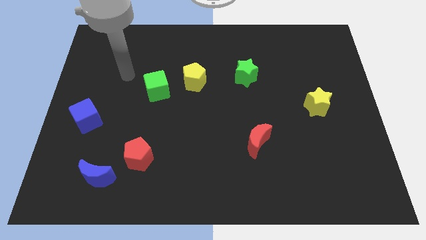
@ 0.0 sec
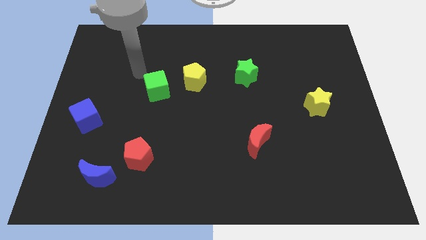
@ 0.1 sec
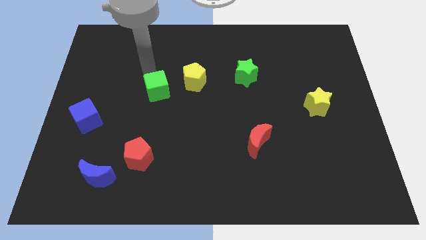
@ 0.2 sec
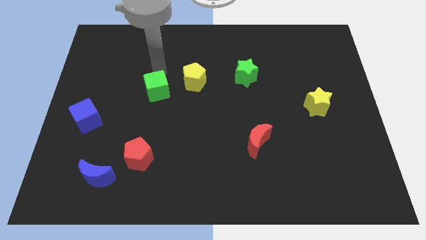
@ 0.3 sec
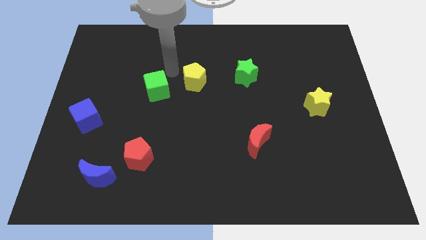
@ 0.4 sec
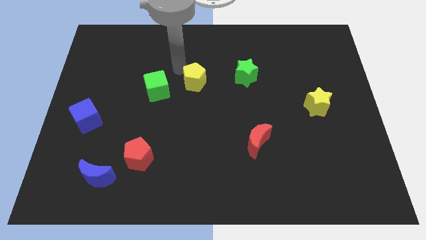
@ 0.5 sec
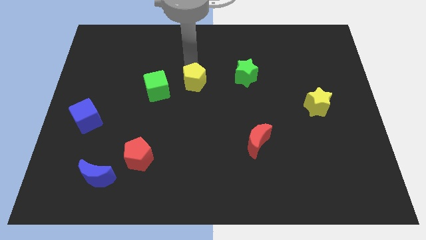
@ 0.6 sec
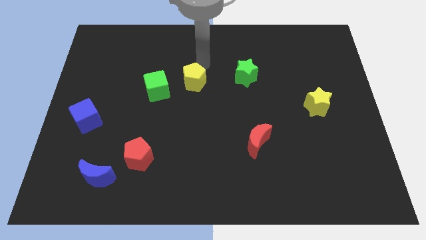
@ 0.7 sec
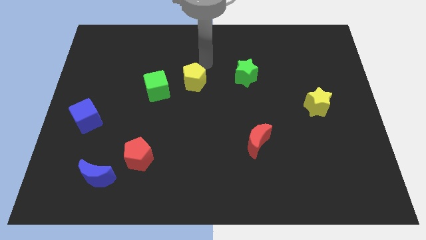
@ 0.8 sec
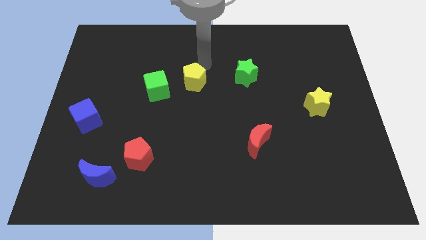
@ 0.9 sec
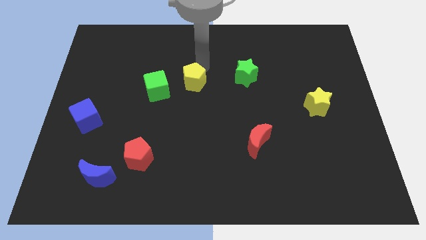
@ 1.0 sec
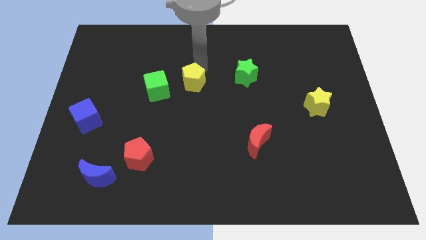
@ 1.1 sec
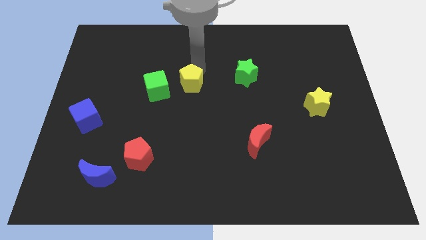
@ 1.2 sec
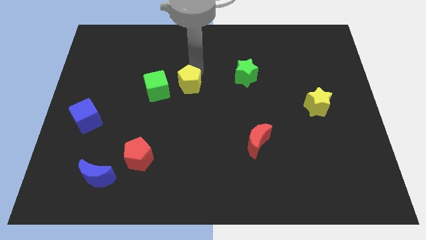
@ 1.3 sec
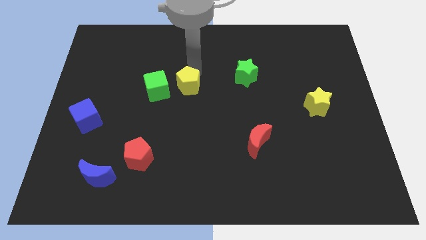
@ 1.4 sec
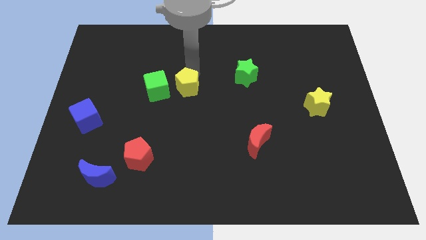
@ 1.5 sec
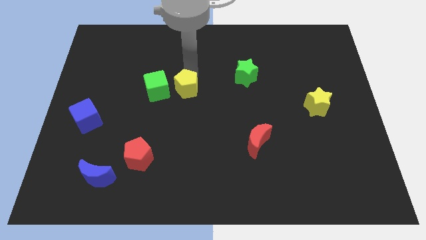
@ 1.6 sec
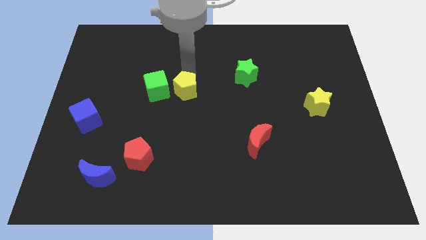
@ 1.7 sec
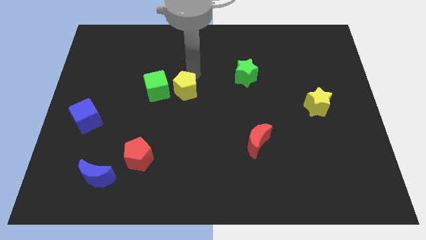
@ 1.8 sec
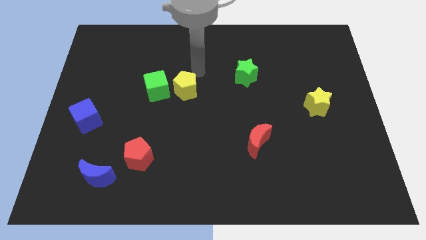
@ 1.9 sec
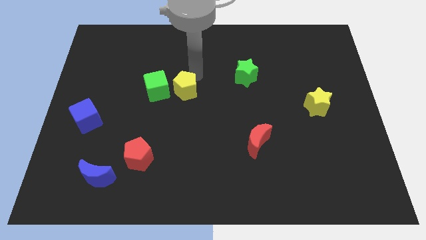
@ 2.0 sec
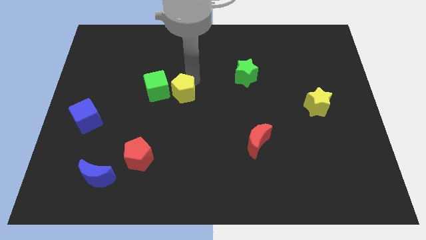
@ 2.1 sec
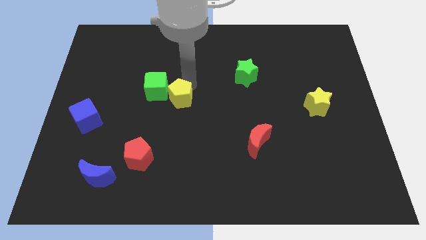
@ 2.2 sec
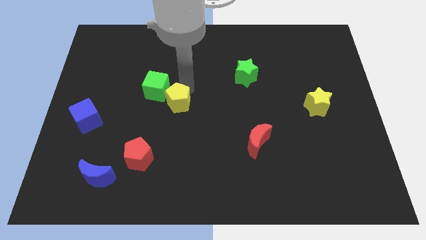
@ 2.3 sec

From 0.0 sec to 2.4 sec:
move the yellow pentagon slightly downwards and left

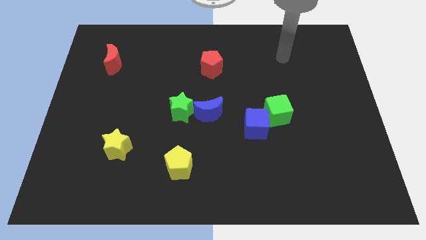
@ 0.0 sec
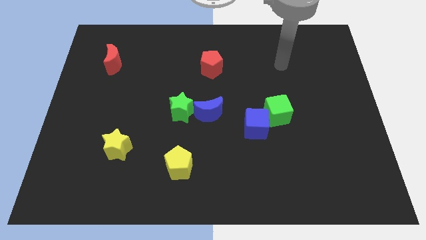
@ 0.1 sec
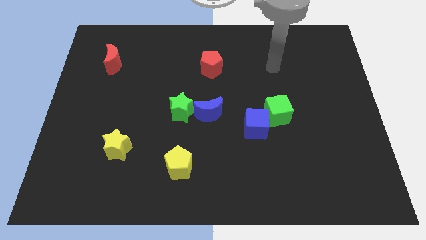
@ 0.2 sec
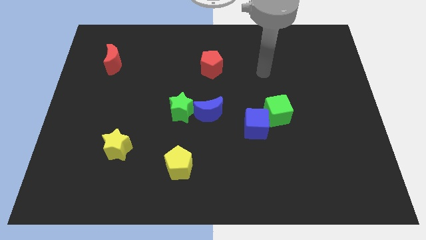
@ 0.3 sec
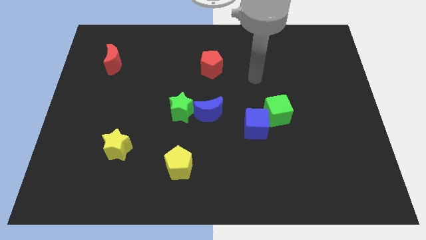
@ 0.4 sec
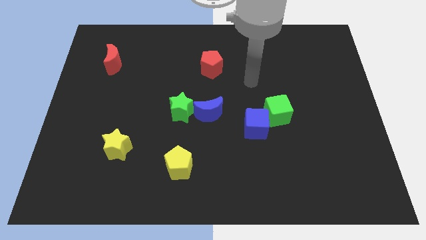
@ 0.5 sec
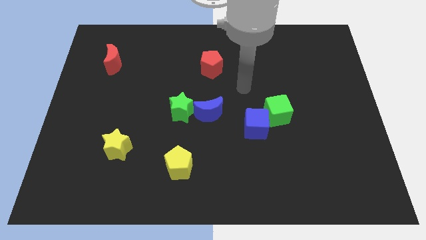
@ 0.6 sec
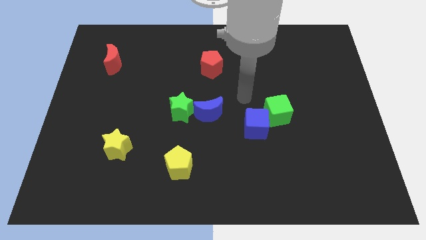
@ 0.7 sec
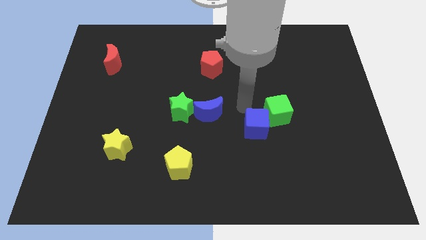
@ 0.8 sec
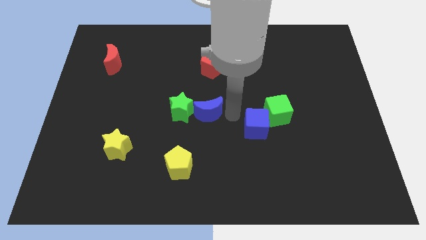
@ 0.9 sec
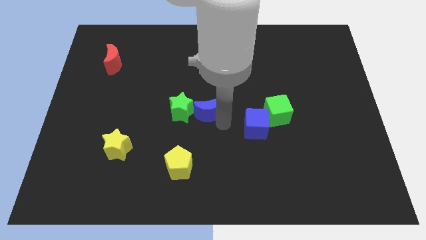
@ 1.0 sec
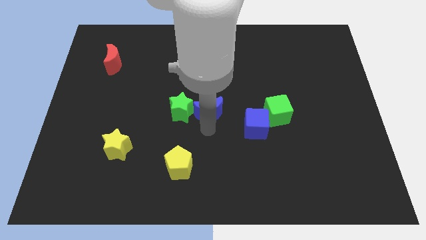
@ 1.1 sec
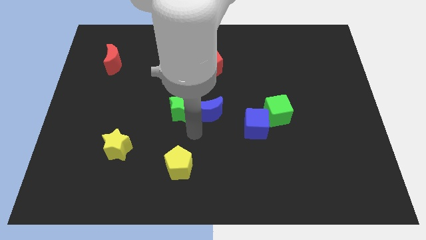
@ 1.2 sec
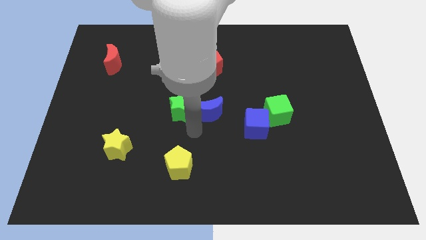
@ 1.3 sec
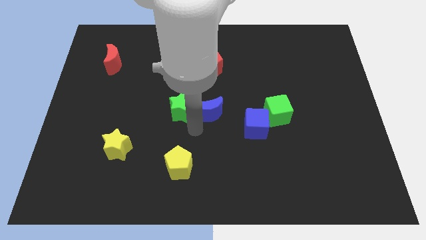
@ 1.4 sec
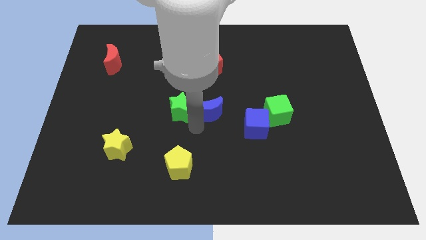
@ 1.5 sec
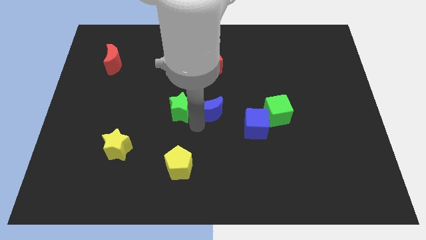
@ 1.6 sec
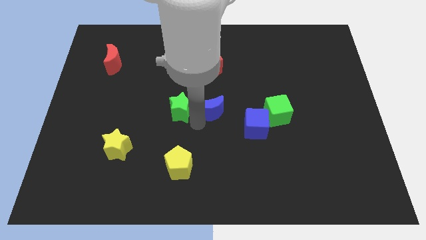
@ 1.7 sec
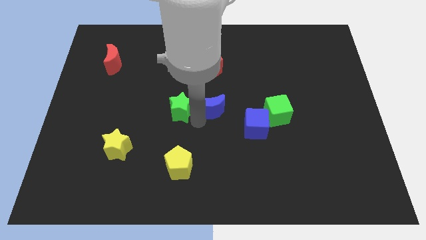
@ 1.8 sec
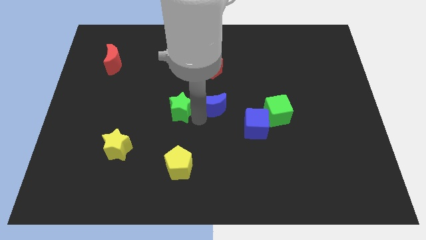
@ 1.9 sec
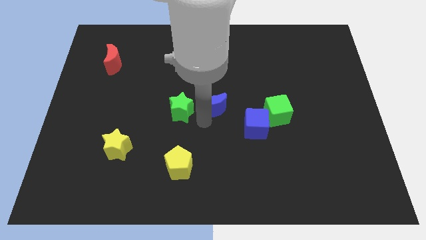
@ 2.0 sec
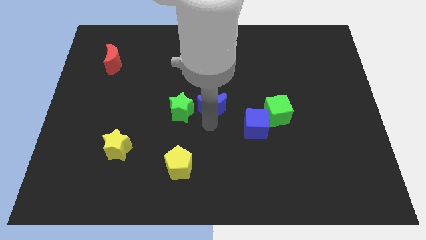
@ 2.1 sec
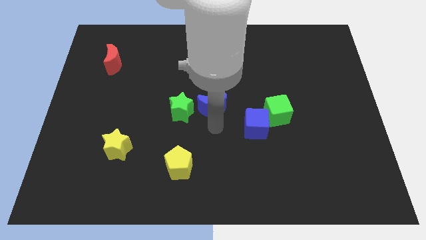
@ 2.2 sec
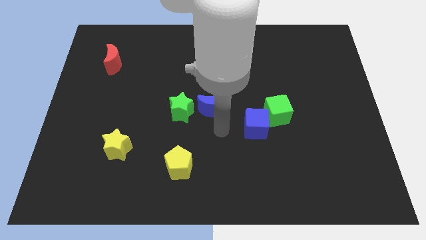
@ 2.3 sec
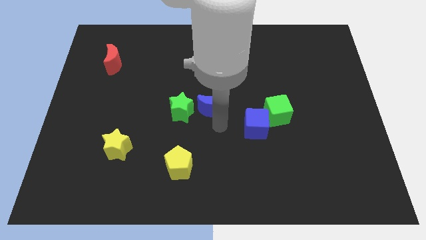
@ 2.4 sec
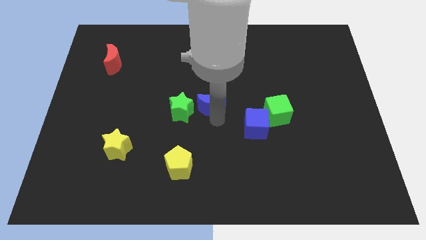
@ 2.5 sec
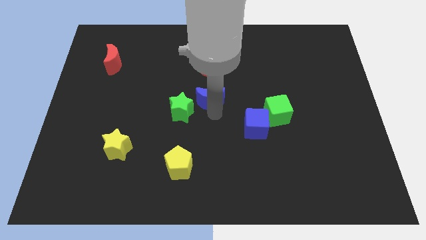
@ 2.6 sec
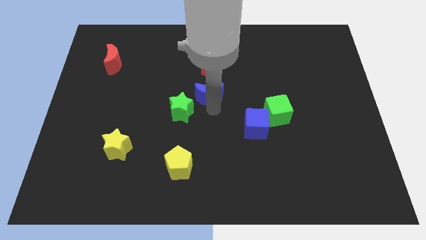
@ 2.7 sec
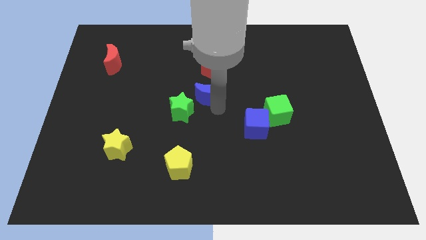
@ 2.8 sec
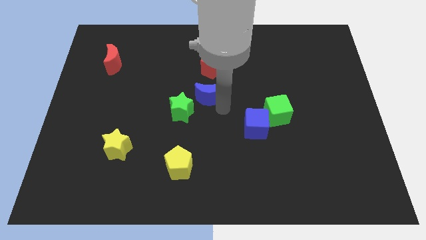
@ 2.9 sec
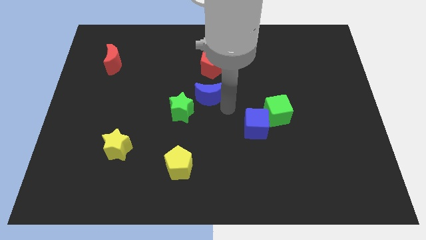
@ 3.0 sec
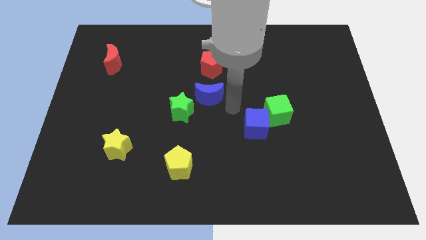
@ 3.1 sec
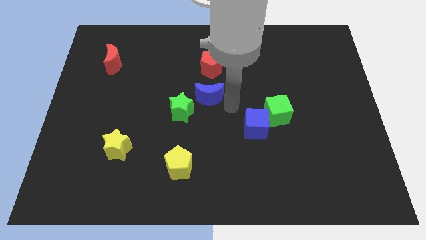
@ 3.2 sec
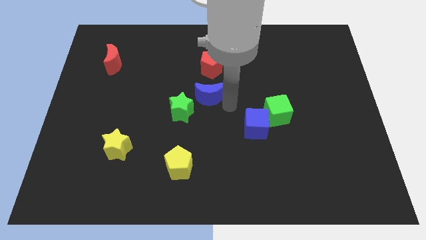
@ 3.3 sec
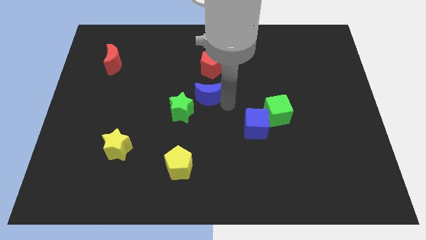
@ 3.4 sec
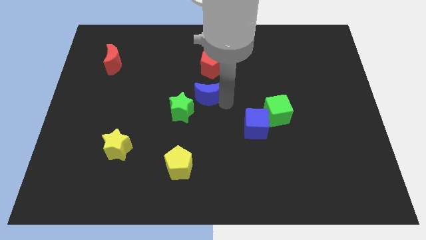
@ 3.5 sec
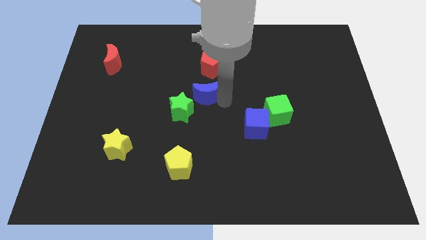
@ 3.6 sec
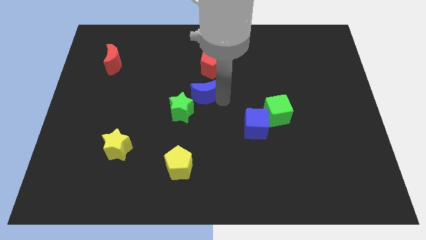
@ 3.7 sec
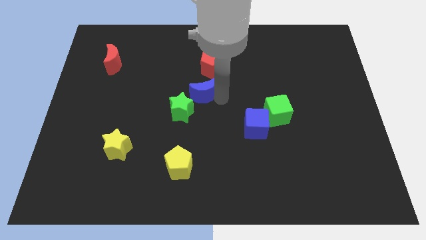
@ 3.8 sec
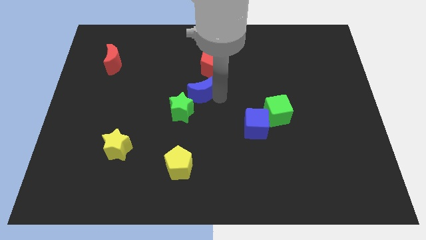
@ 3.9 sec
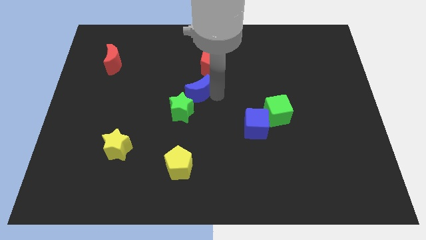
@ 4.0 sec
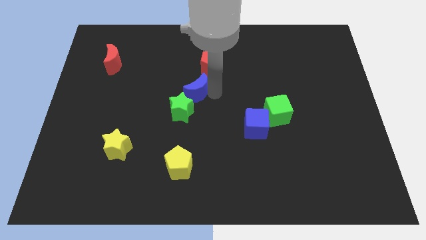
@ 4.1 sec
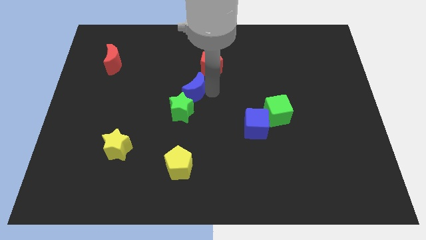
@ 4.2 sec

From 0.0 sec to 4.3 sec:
slightly move the blue moon up and to the left

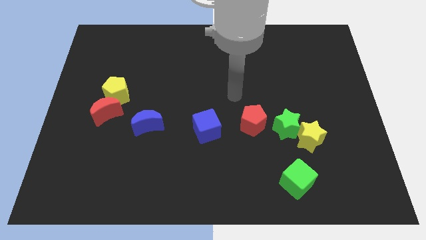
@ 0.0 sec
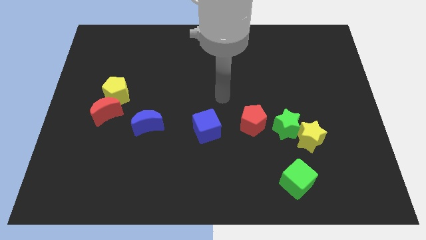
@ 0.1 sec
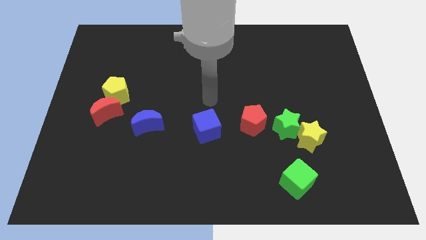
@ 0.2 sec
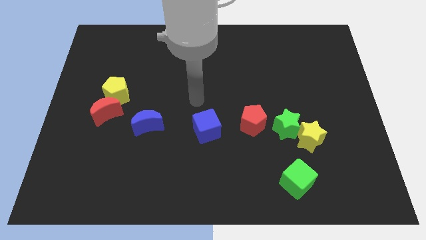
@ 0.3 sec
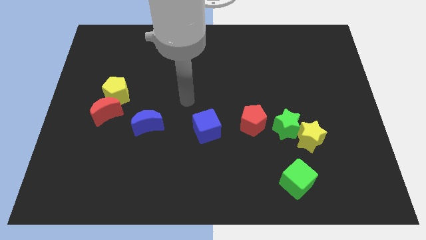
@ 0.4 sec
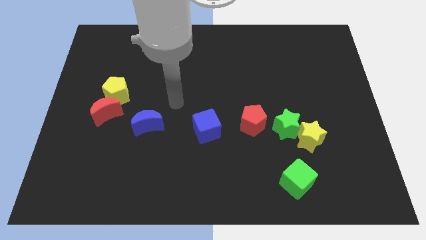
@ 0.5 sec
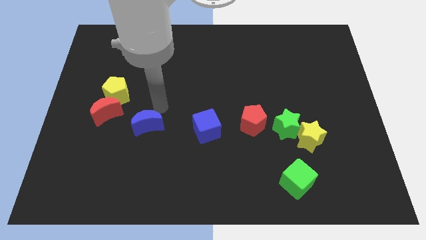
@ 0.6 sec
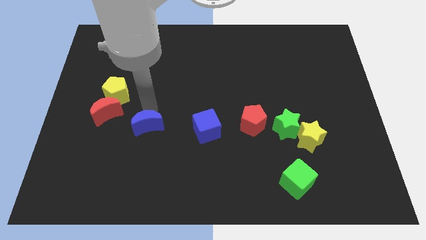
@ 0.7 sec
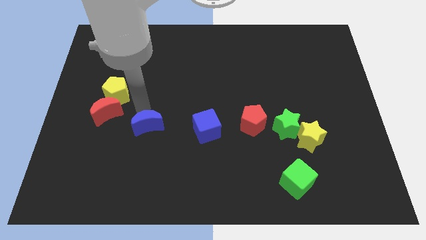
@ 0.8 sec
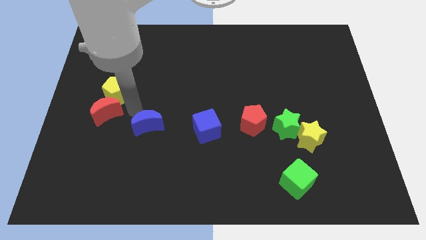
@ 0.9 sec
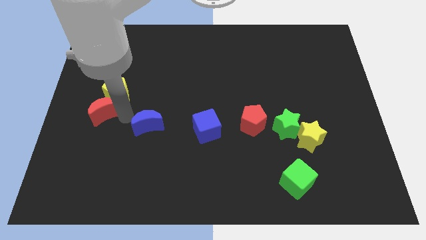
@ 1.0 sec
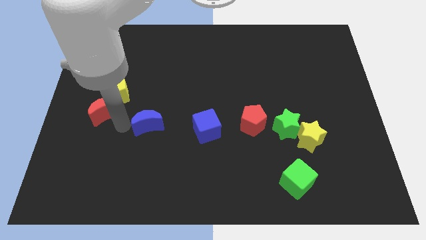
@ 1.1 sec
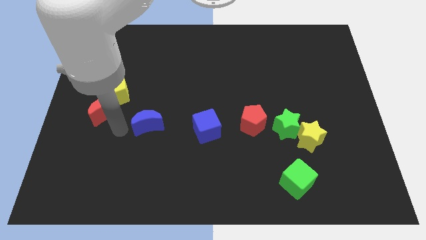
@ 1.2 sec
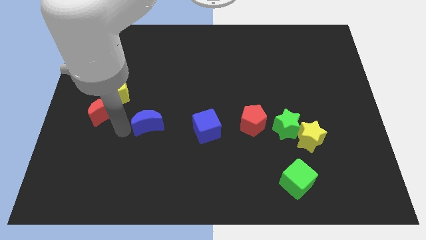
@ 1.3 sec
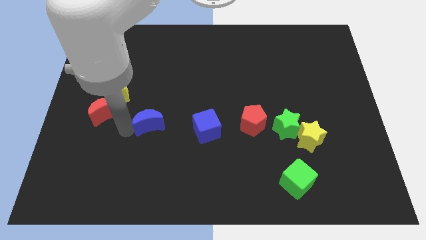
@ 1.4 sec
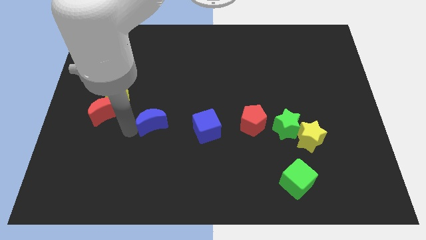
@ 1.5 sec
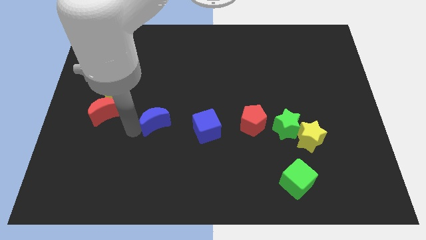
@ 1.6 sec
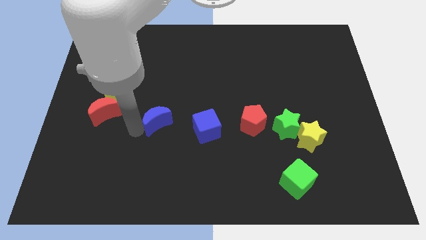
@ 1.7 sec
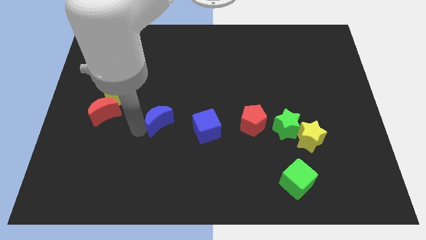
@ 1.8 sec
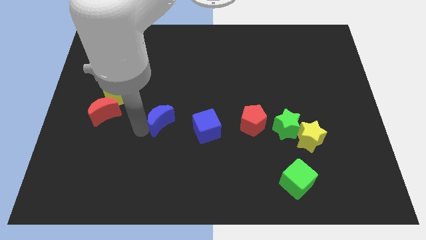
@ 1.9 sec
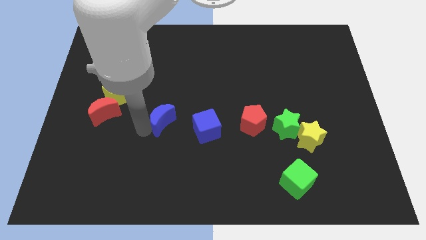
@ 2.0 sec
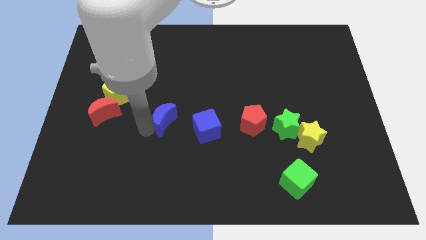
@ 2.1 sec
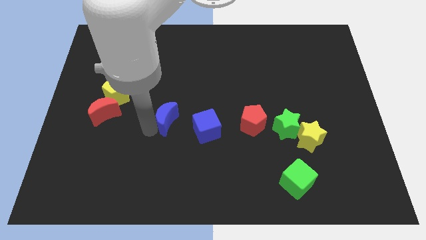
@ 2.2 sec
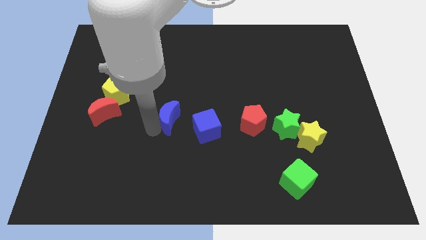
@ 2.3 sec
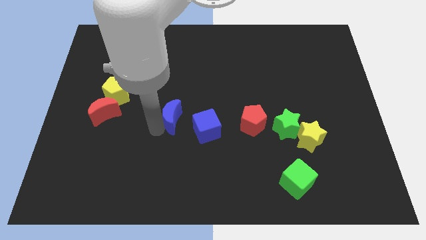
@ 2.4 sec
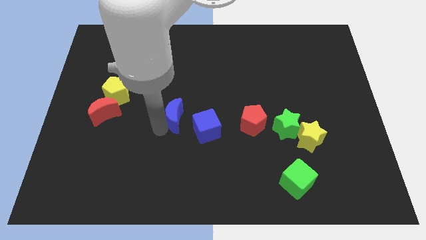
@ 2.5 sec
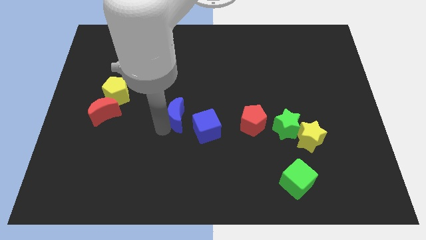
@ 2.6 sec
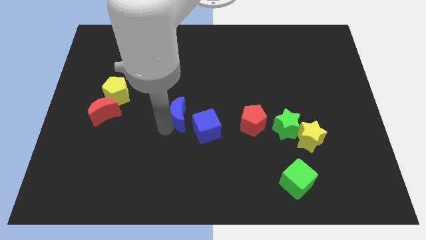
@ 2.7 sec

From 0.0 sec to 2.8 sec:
push the blue moon a little bit to the right
